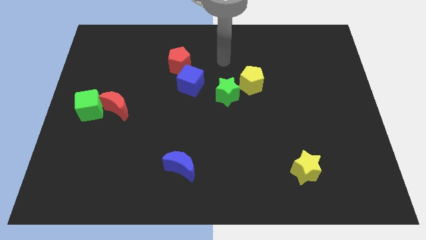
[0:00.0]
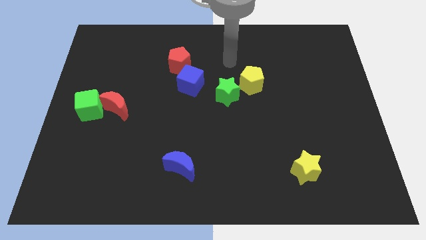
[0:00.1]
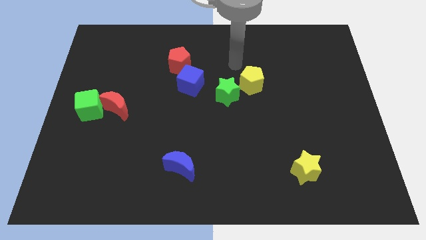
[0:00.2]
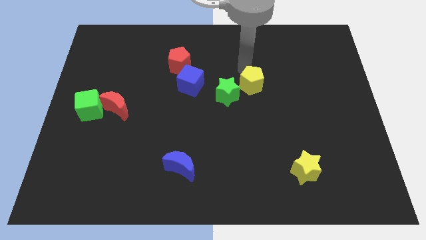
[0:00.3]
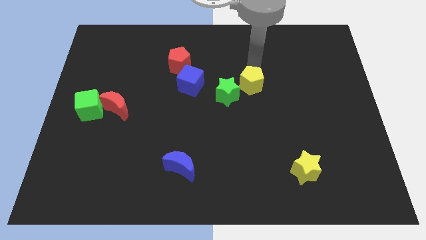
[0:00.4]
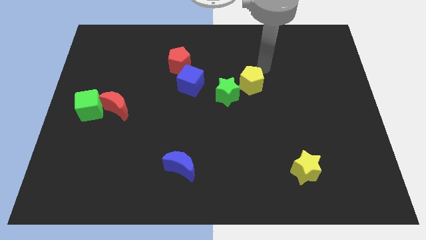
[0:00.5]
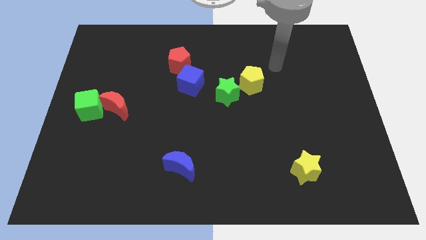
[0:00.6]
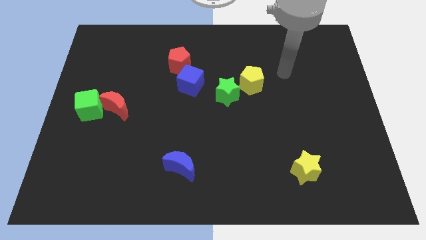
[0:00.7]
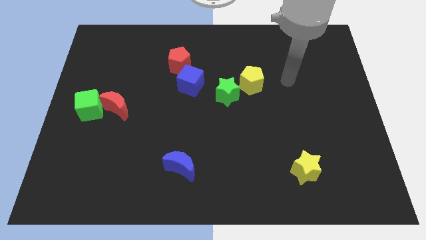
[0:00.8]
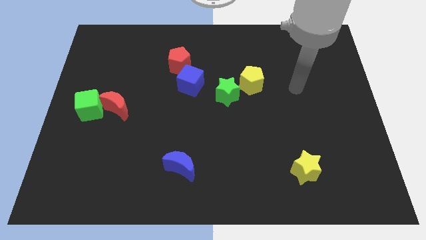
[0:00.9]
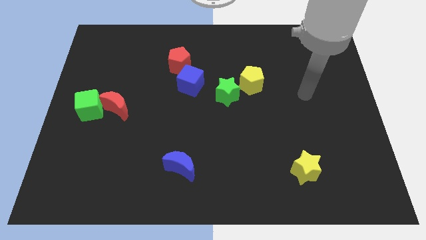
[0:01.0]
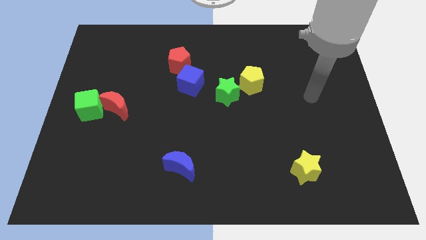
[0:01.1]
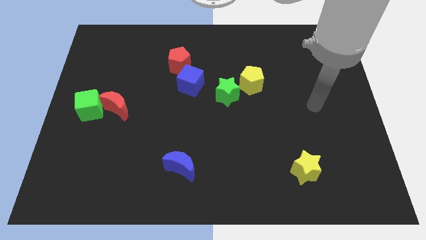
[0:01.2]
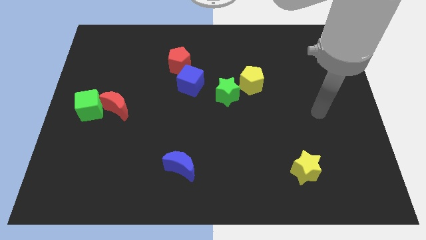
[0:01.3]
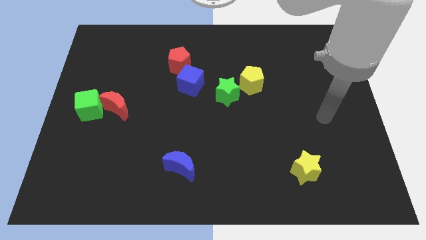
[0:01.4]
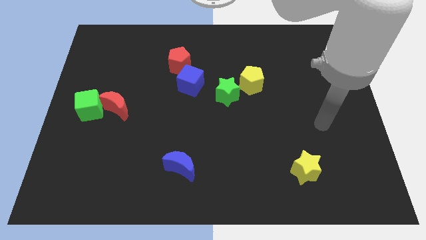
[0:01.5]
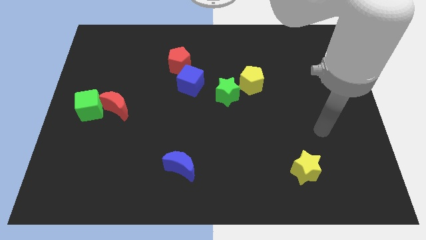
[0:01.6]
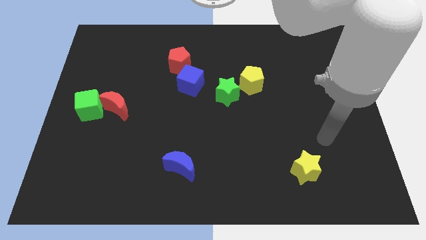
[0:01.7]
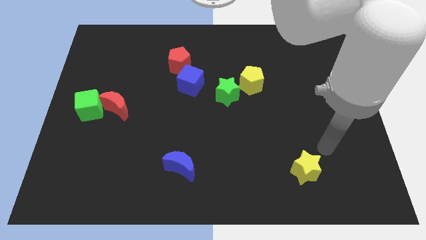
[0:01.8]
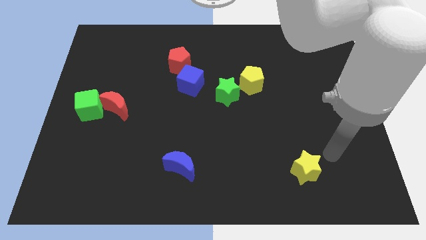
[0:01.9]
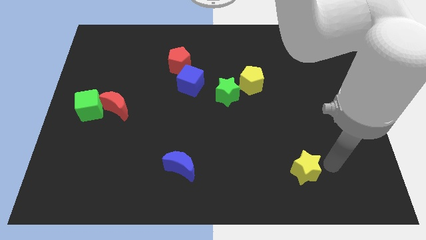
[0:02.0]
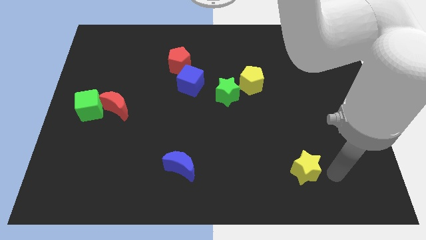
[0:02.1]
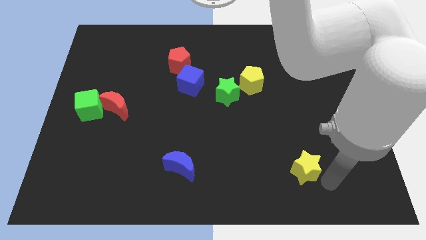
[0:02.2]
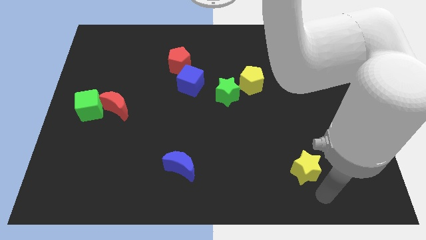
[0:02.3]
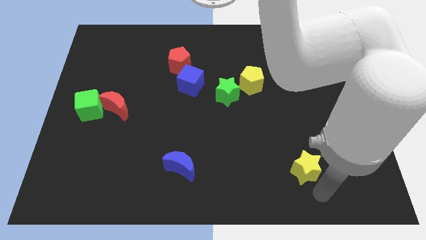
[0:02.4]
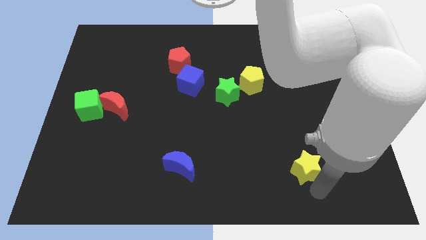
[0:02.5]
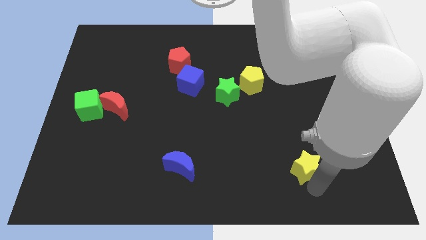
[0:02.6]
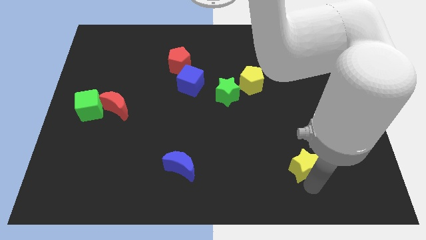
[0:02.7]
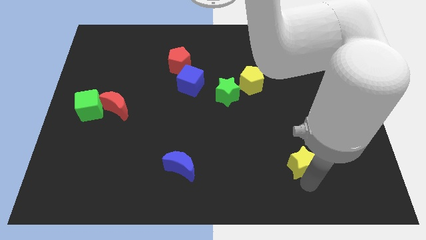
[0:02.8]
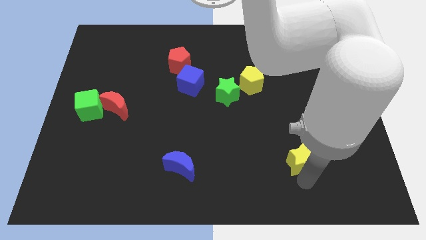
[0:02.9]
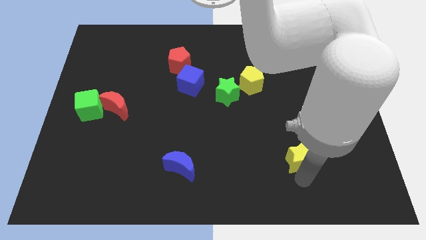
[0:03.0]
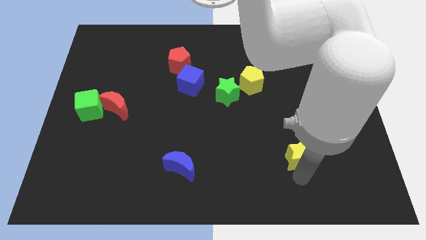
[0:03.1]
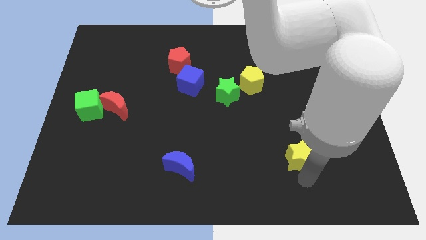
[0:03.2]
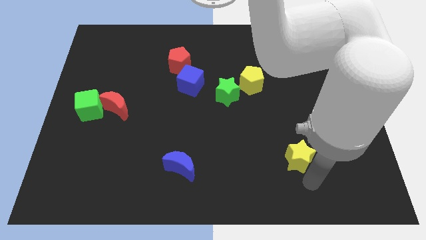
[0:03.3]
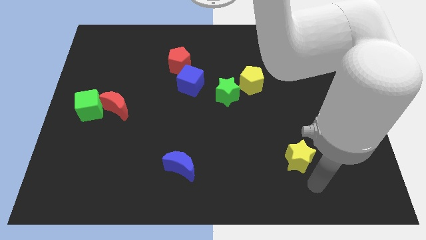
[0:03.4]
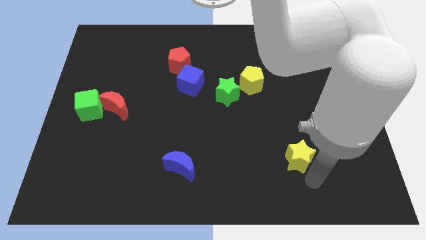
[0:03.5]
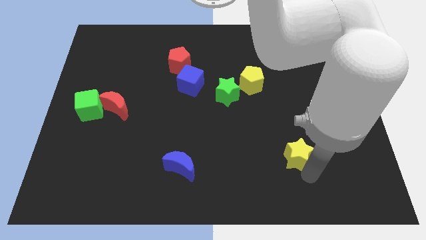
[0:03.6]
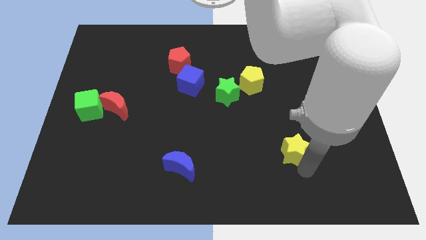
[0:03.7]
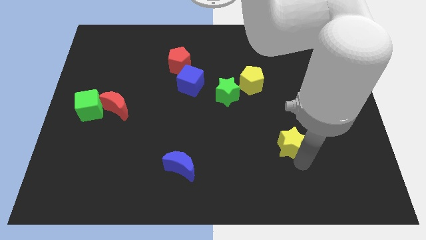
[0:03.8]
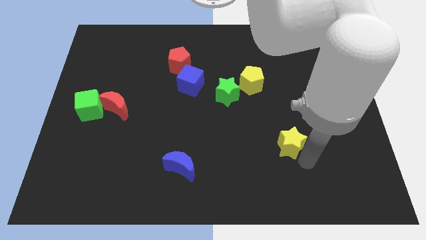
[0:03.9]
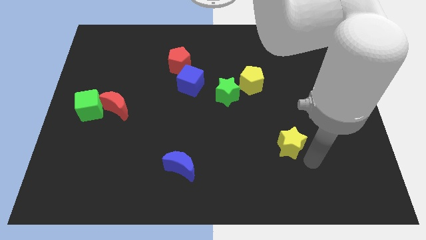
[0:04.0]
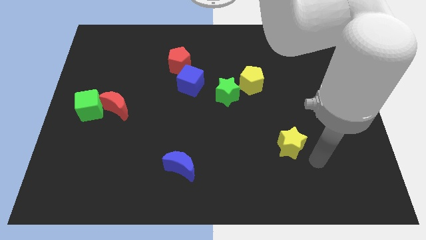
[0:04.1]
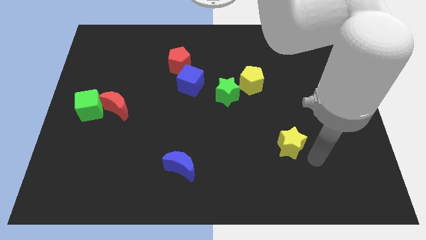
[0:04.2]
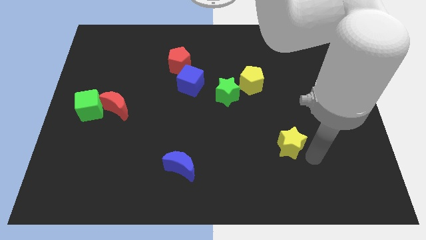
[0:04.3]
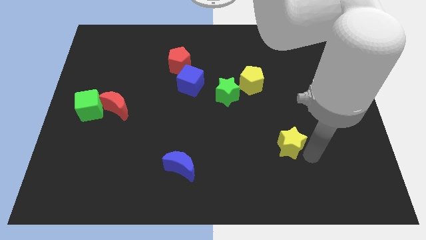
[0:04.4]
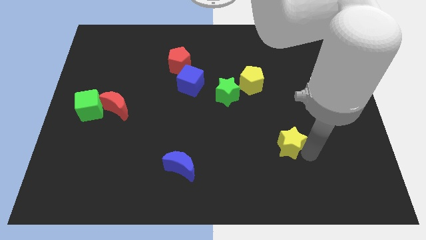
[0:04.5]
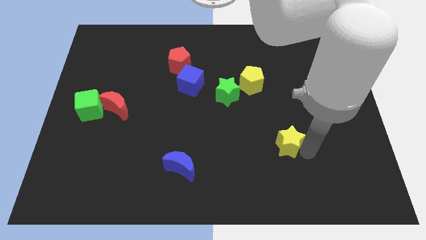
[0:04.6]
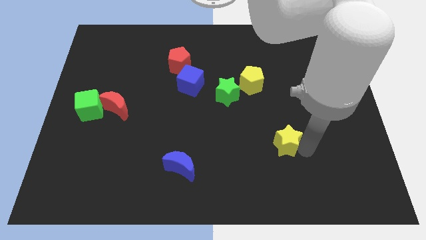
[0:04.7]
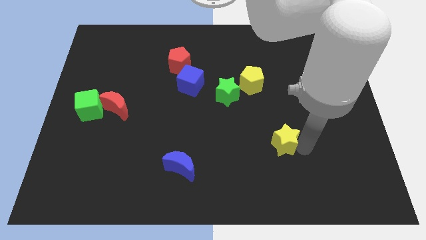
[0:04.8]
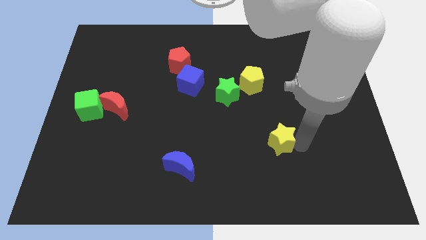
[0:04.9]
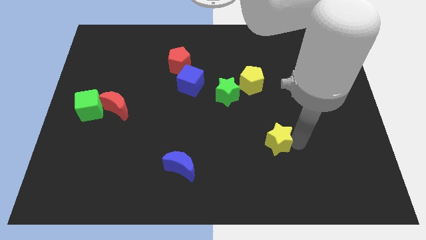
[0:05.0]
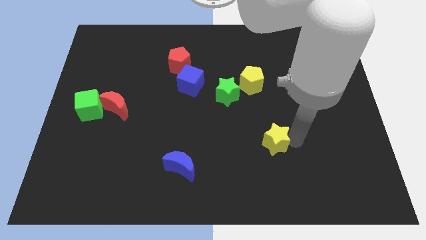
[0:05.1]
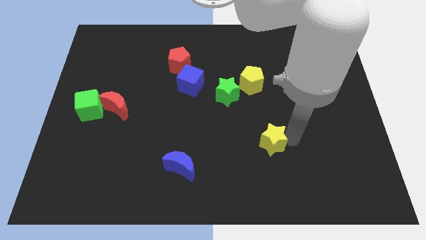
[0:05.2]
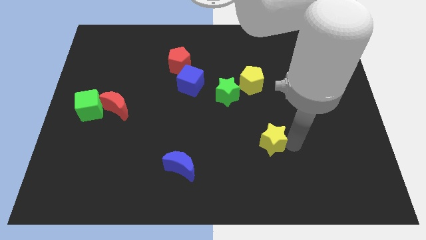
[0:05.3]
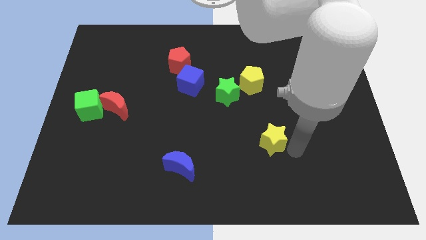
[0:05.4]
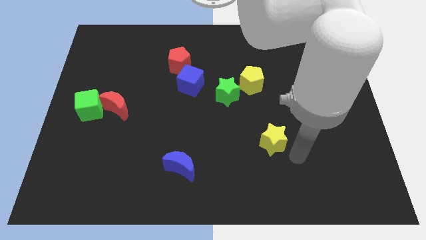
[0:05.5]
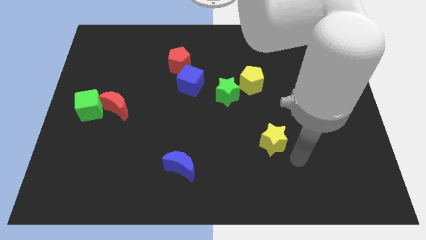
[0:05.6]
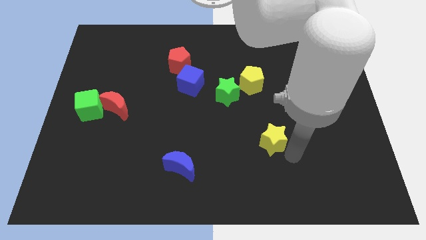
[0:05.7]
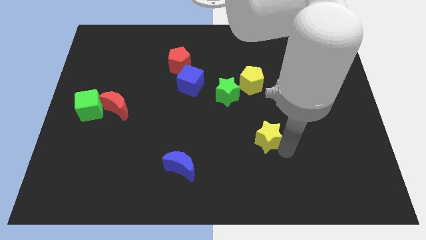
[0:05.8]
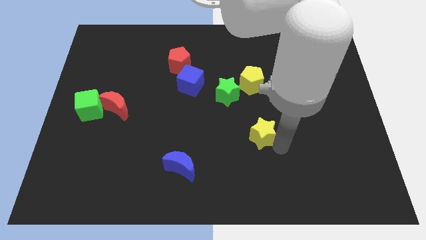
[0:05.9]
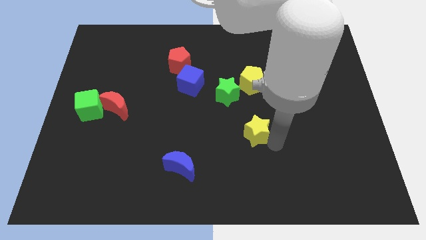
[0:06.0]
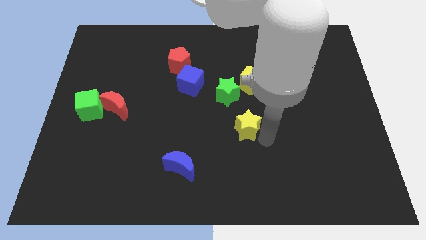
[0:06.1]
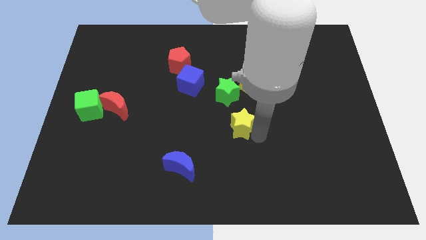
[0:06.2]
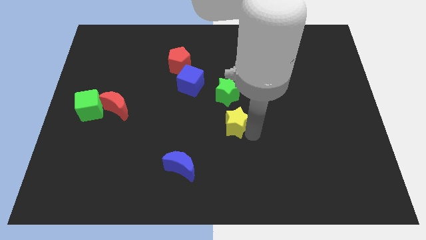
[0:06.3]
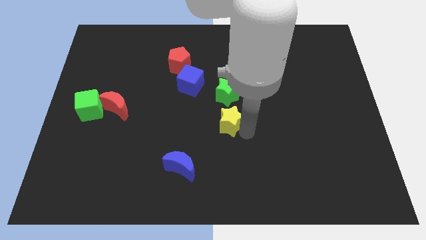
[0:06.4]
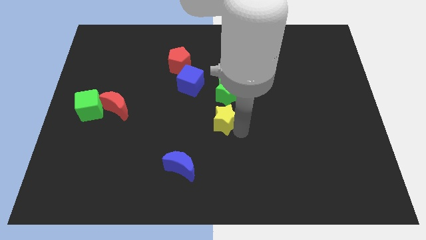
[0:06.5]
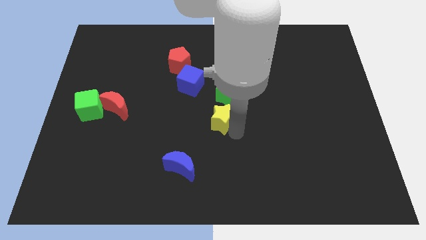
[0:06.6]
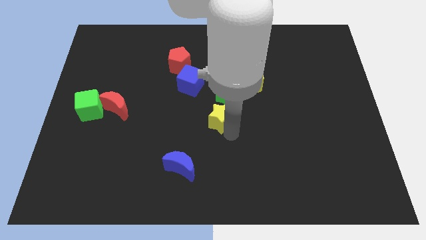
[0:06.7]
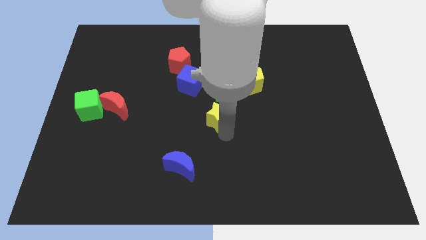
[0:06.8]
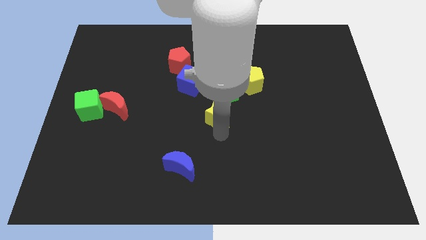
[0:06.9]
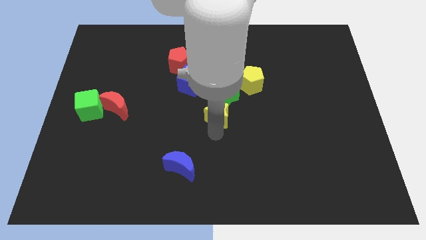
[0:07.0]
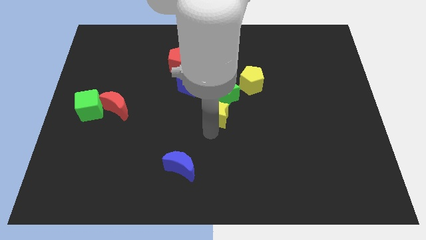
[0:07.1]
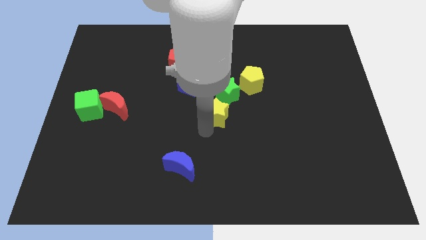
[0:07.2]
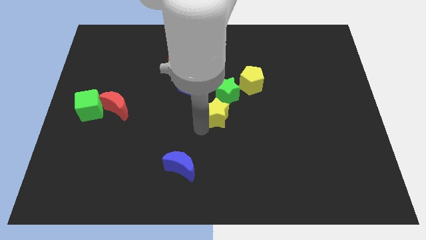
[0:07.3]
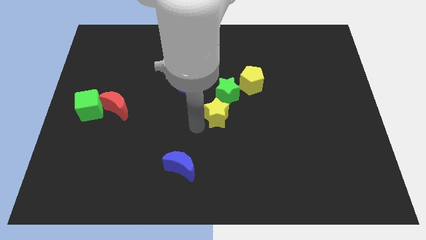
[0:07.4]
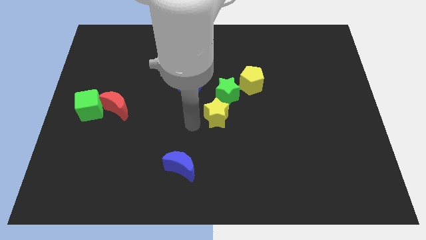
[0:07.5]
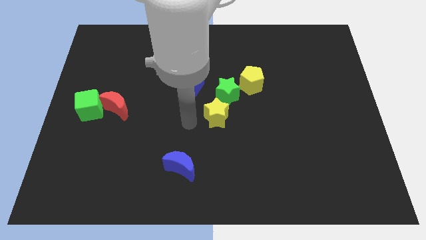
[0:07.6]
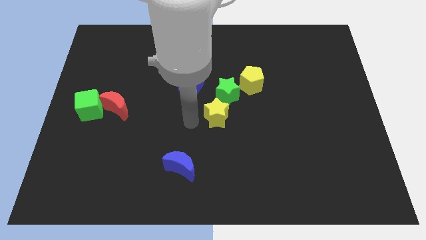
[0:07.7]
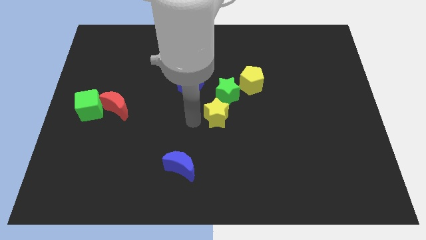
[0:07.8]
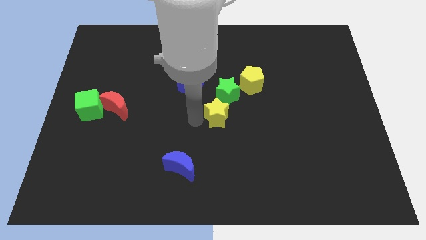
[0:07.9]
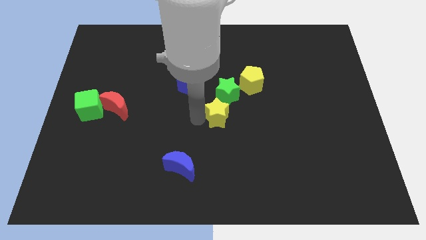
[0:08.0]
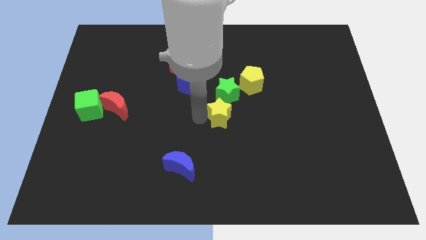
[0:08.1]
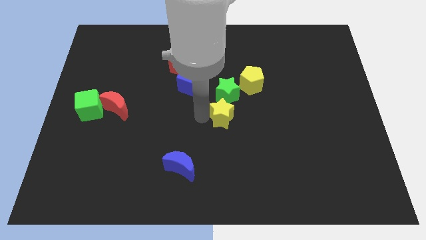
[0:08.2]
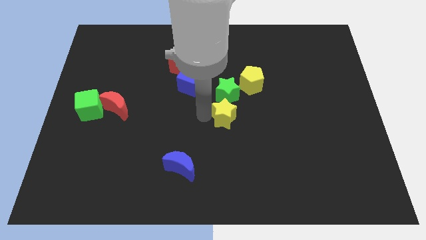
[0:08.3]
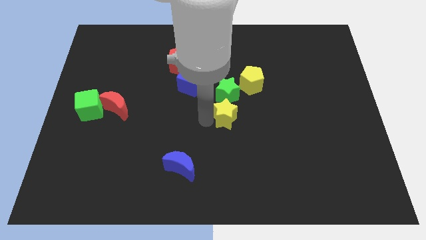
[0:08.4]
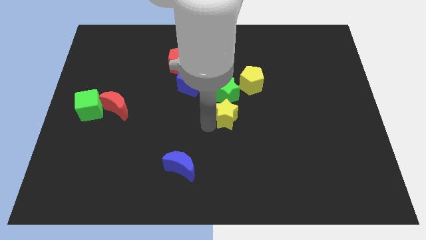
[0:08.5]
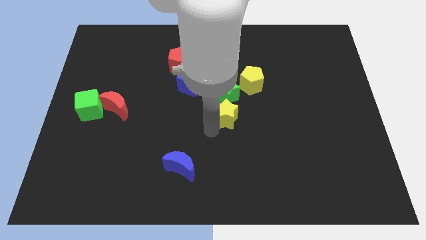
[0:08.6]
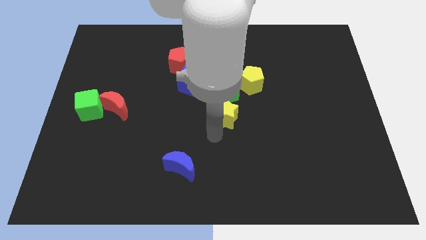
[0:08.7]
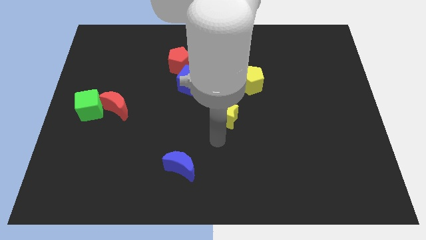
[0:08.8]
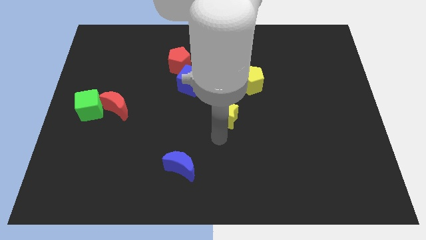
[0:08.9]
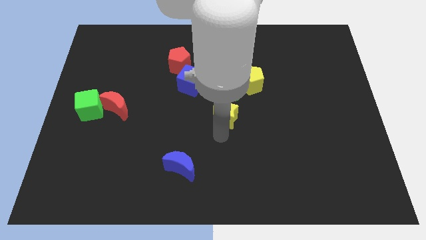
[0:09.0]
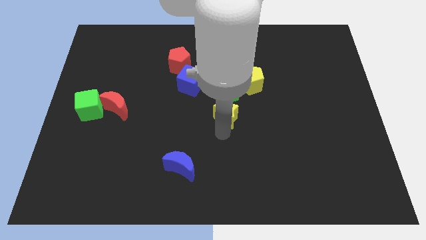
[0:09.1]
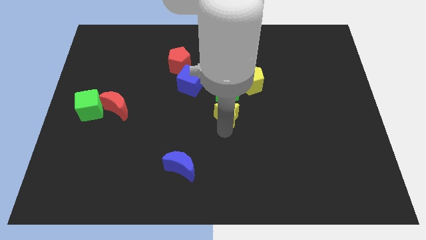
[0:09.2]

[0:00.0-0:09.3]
move the yellow star to the bottom left side of the yellow pentagon
